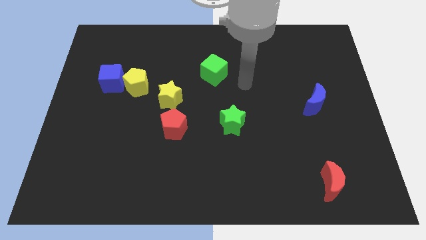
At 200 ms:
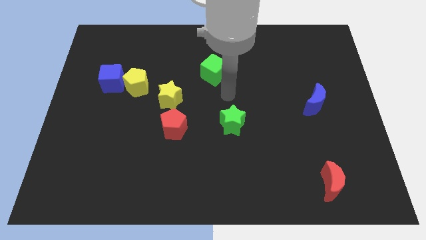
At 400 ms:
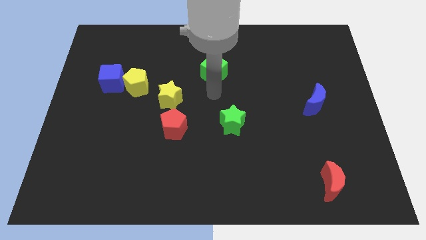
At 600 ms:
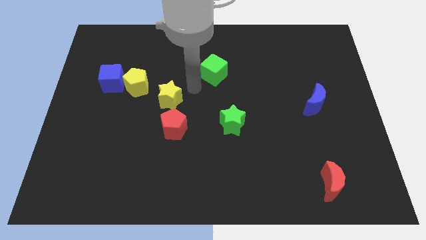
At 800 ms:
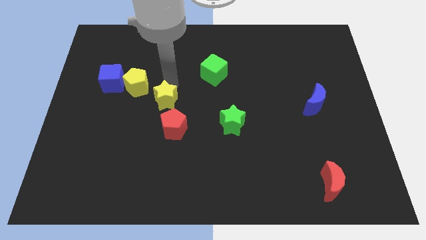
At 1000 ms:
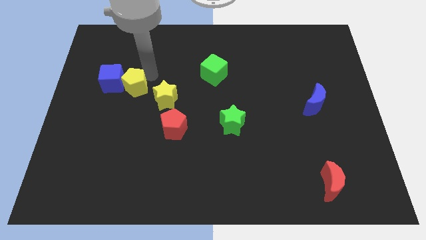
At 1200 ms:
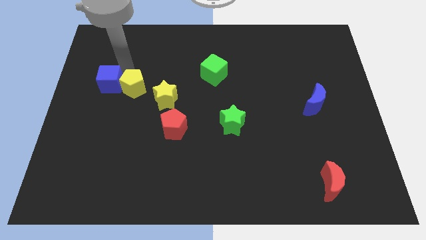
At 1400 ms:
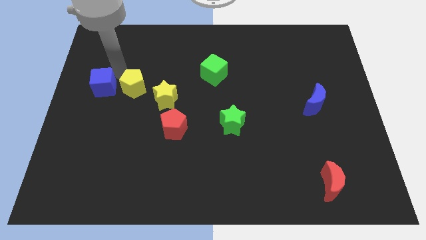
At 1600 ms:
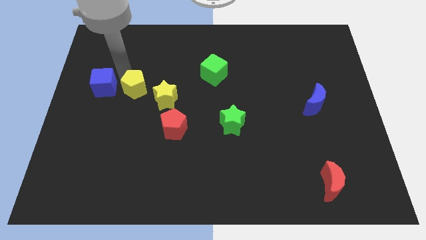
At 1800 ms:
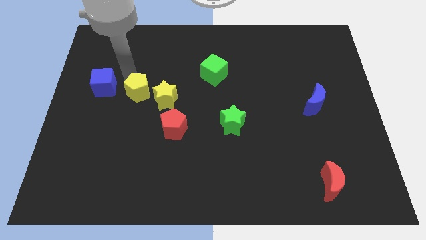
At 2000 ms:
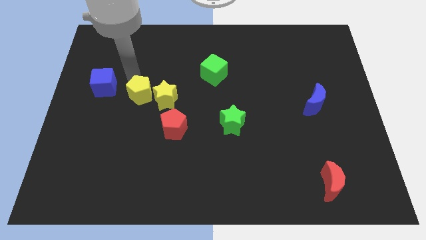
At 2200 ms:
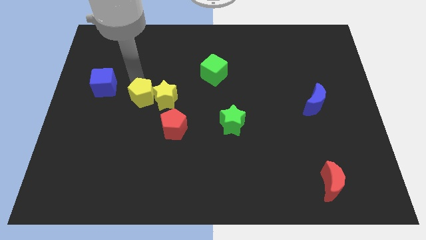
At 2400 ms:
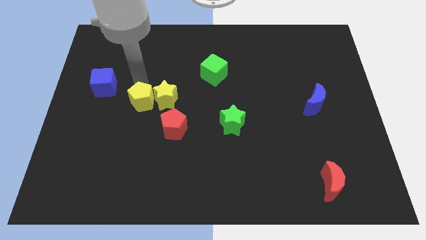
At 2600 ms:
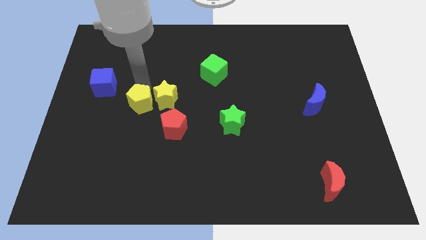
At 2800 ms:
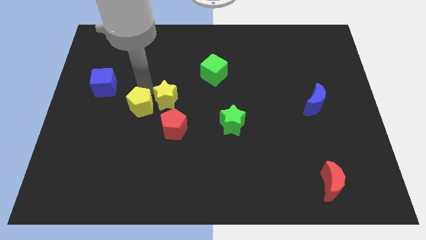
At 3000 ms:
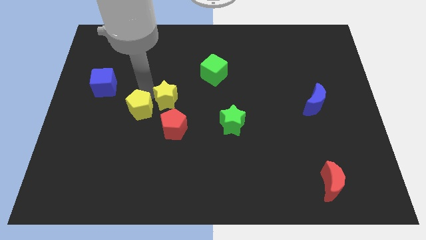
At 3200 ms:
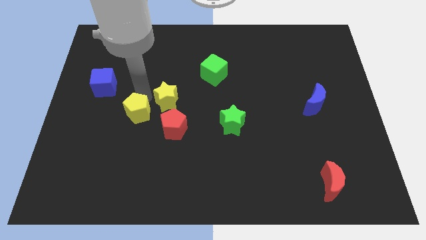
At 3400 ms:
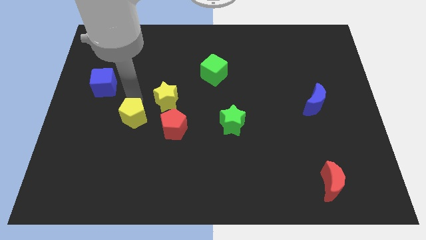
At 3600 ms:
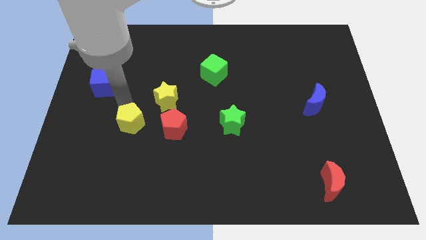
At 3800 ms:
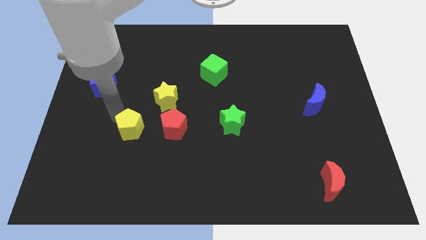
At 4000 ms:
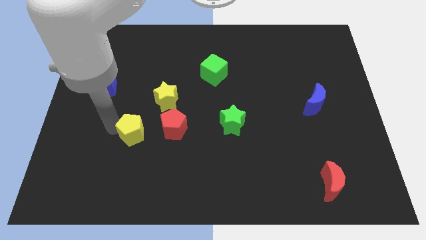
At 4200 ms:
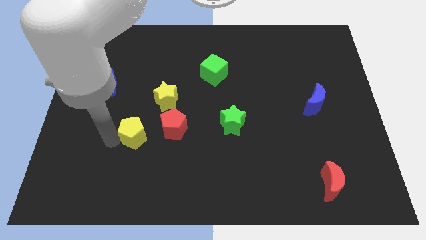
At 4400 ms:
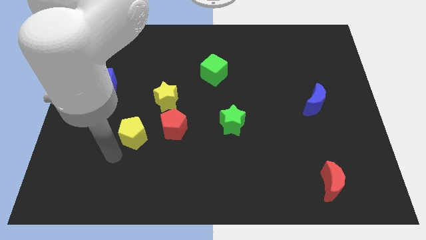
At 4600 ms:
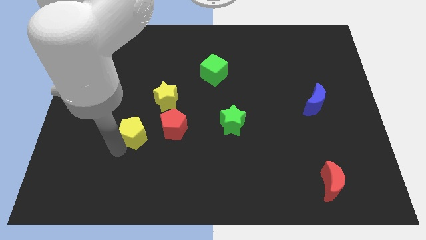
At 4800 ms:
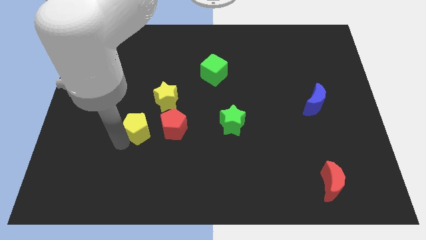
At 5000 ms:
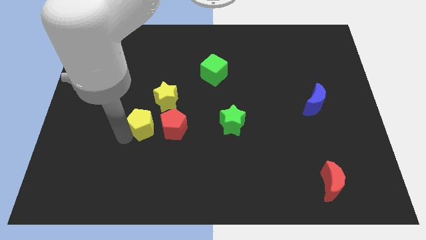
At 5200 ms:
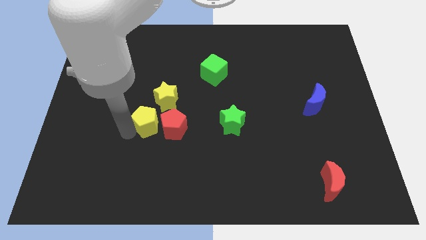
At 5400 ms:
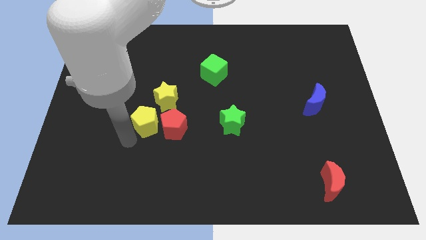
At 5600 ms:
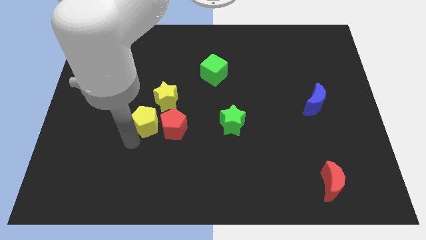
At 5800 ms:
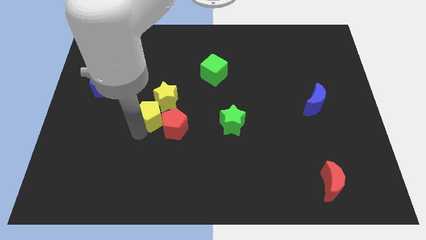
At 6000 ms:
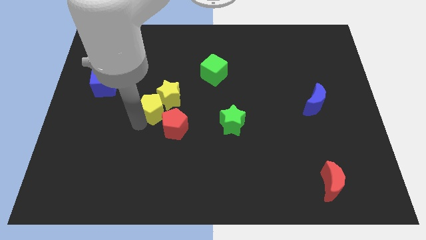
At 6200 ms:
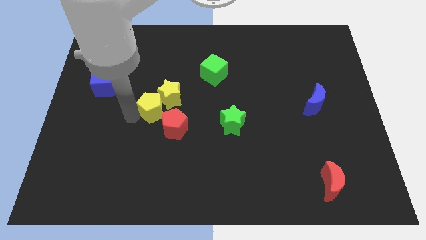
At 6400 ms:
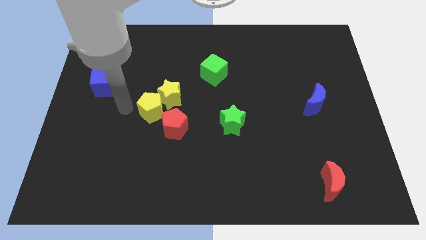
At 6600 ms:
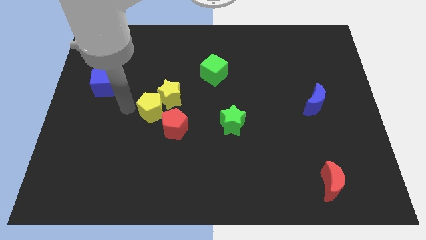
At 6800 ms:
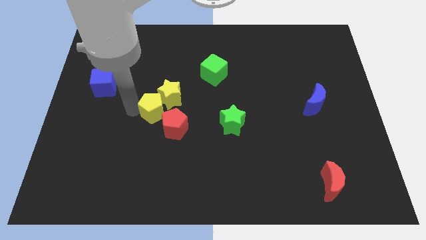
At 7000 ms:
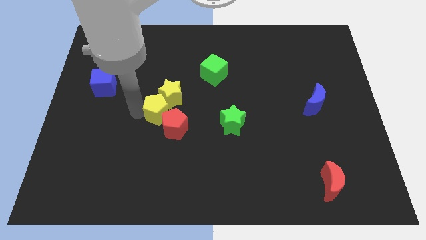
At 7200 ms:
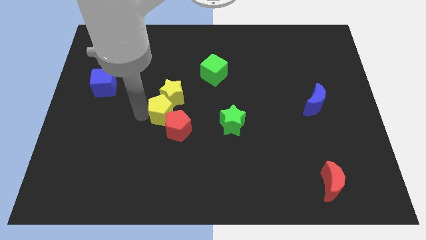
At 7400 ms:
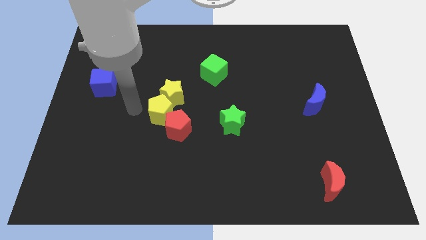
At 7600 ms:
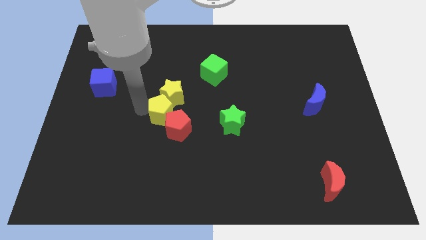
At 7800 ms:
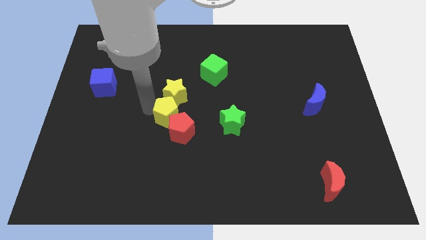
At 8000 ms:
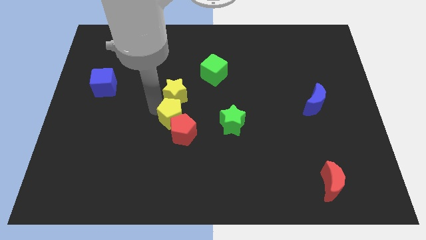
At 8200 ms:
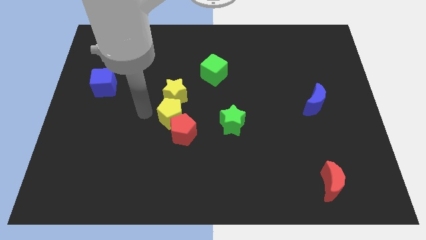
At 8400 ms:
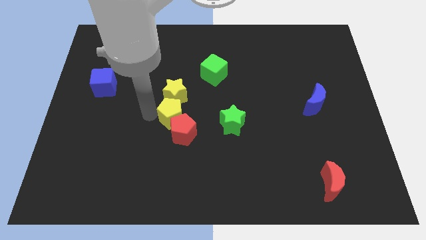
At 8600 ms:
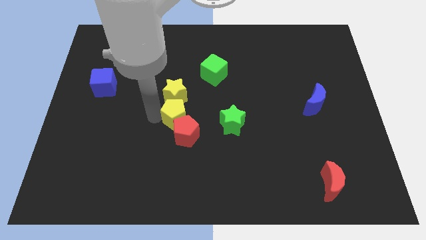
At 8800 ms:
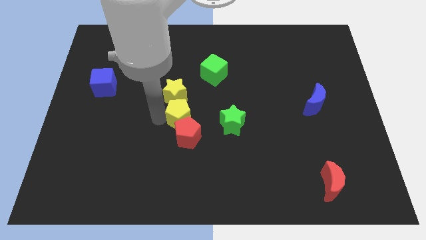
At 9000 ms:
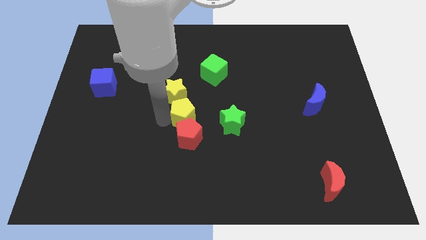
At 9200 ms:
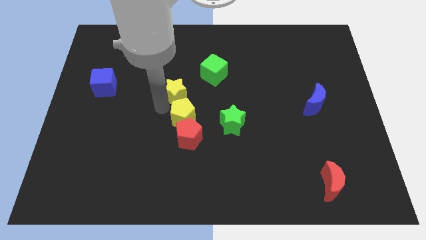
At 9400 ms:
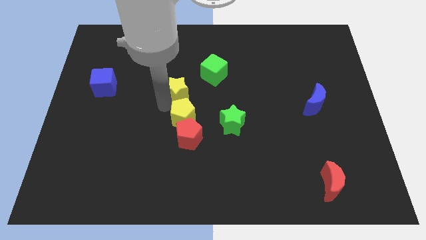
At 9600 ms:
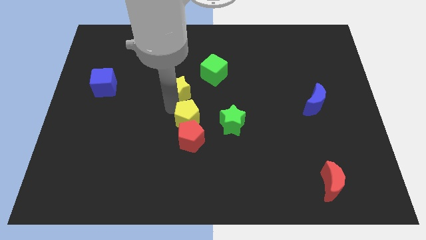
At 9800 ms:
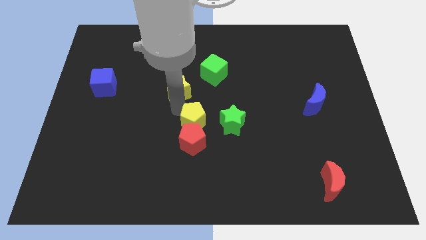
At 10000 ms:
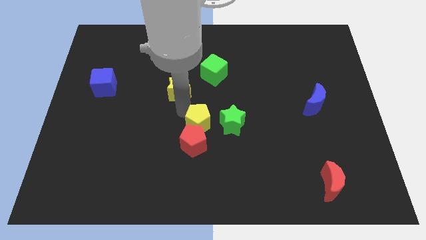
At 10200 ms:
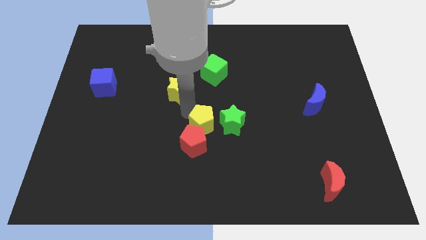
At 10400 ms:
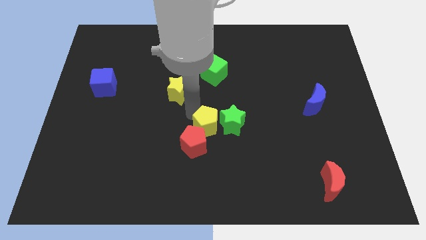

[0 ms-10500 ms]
push the yellow pentagon downwards and to the right diagonally

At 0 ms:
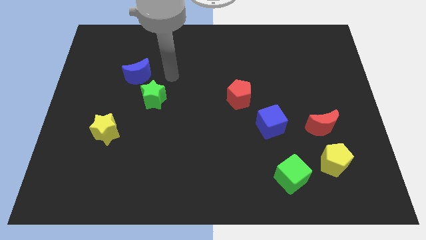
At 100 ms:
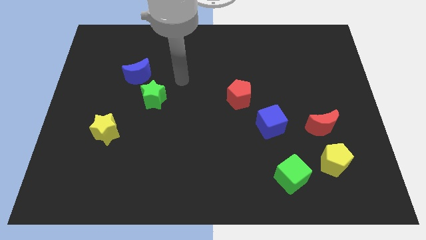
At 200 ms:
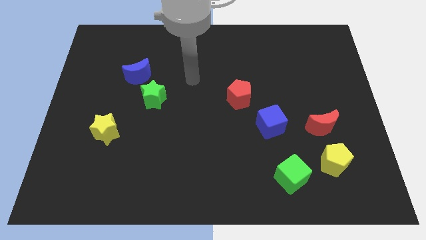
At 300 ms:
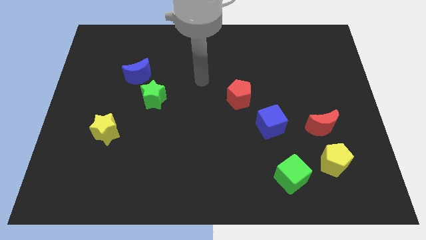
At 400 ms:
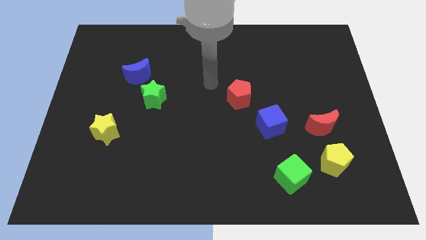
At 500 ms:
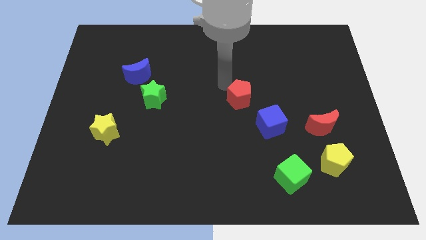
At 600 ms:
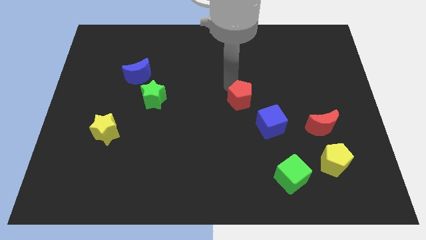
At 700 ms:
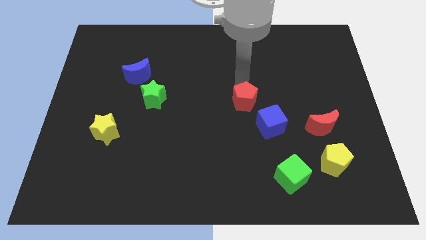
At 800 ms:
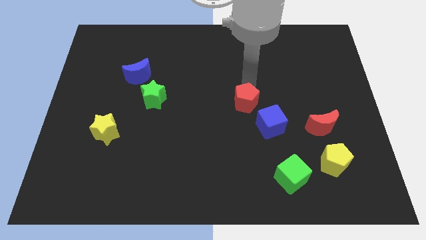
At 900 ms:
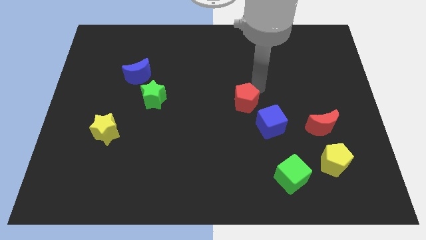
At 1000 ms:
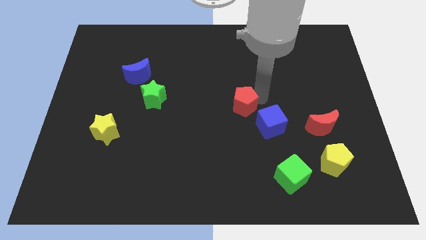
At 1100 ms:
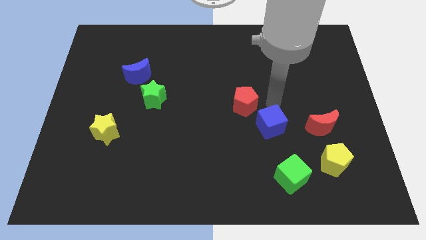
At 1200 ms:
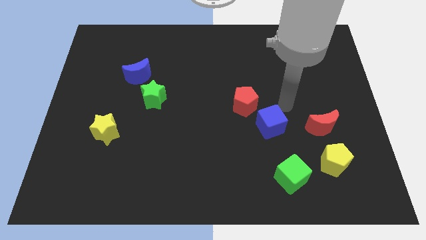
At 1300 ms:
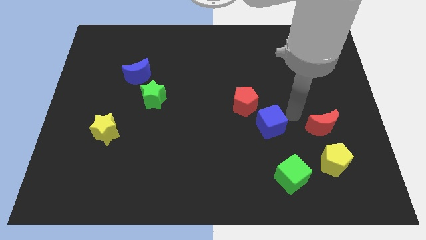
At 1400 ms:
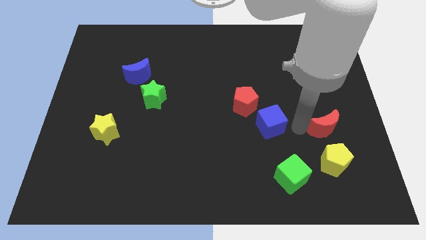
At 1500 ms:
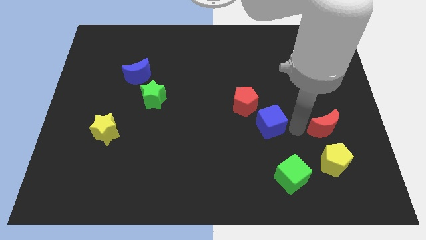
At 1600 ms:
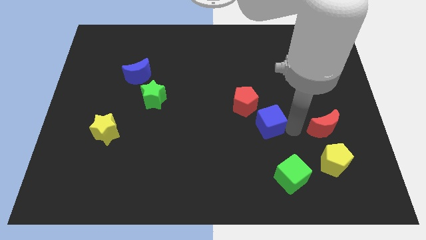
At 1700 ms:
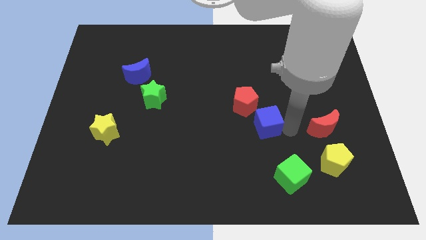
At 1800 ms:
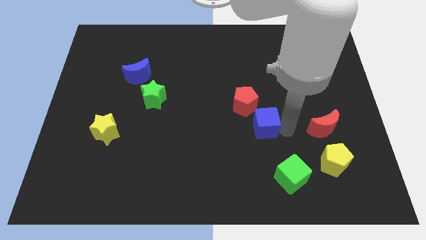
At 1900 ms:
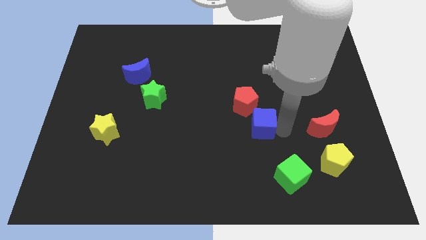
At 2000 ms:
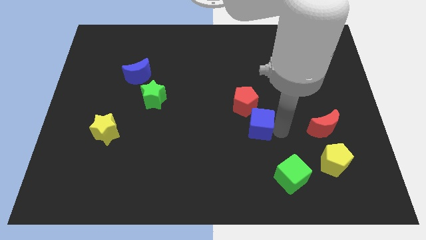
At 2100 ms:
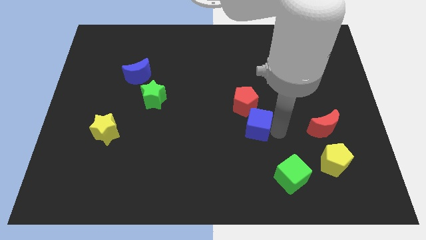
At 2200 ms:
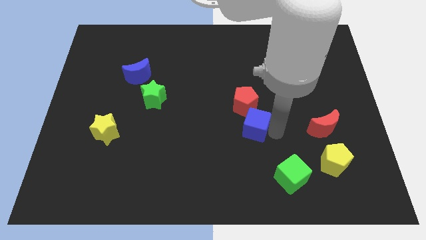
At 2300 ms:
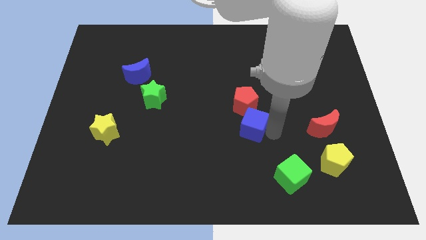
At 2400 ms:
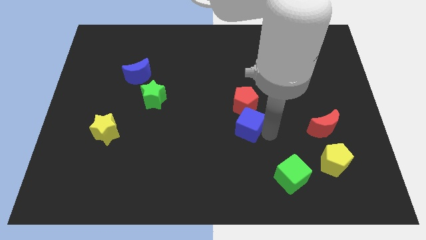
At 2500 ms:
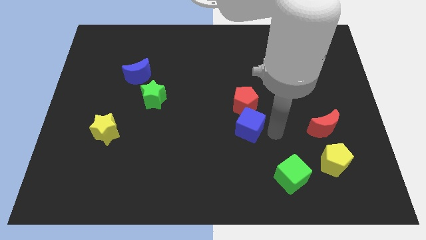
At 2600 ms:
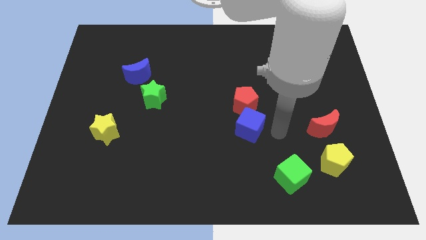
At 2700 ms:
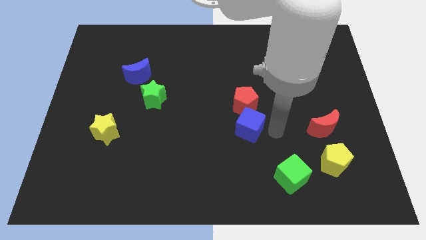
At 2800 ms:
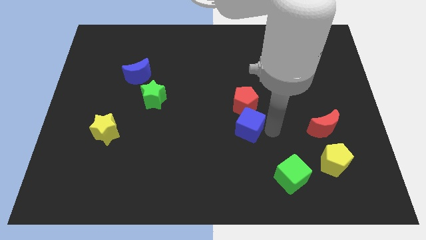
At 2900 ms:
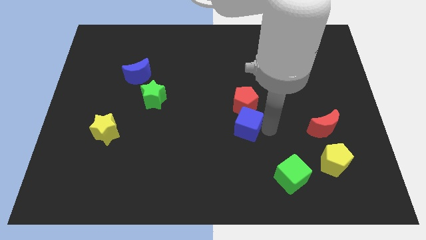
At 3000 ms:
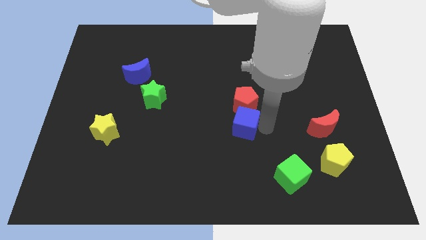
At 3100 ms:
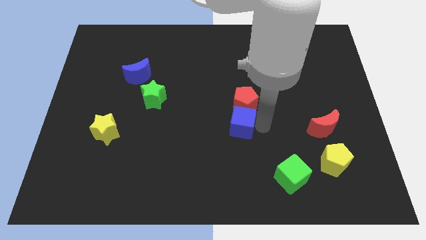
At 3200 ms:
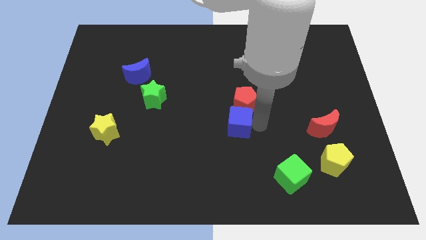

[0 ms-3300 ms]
move the blue cube left somewhat

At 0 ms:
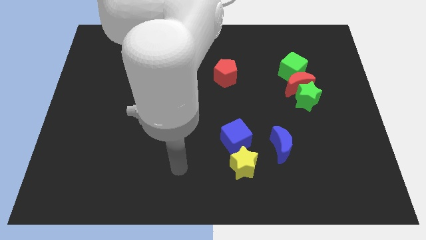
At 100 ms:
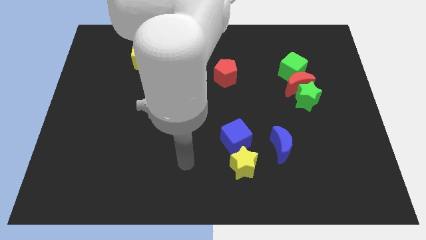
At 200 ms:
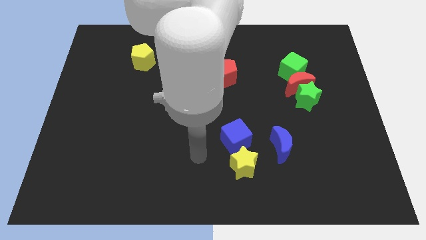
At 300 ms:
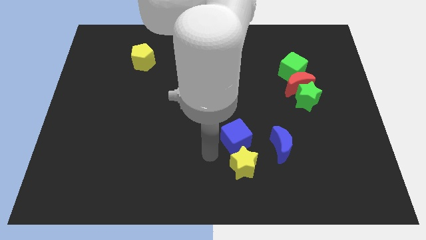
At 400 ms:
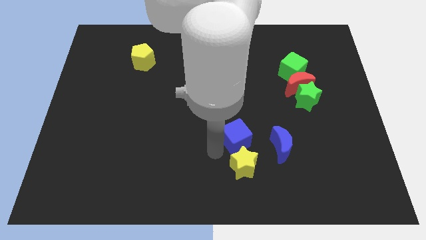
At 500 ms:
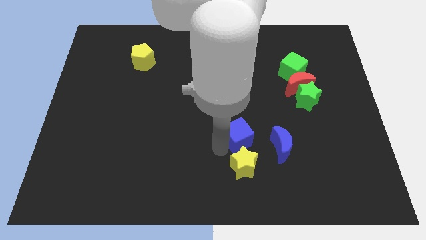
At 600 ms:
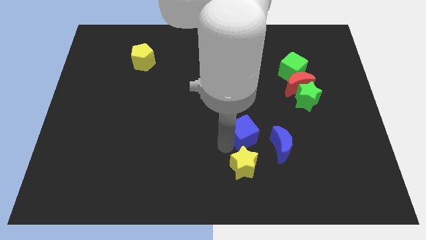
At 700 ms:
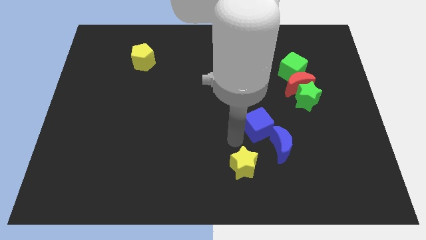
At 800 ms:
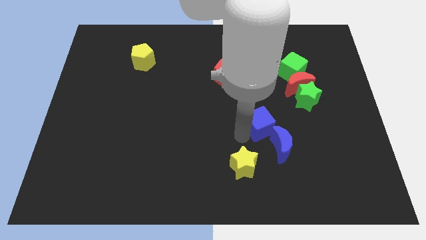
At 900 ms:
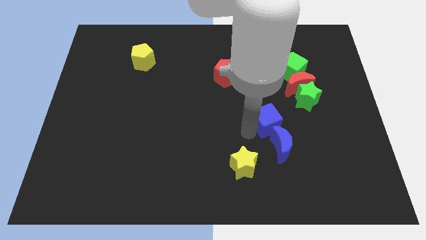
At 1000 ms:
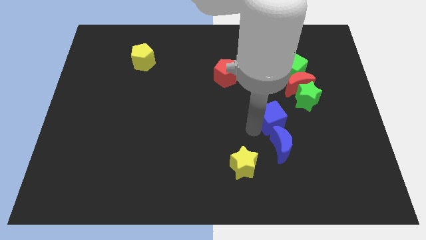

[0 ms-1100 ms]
move the blue cube a little bit to the right
